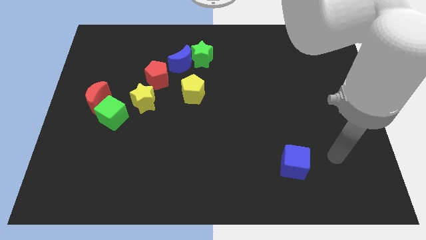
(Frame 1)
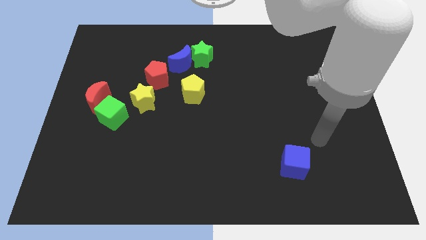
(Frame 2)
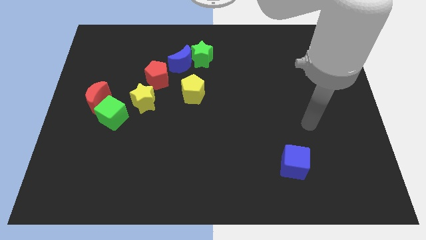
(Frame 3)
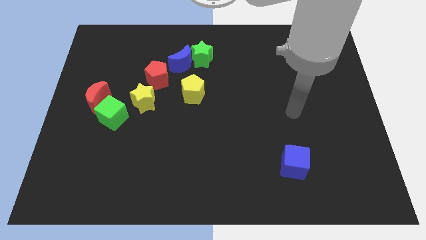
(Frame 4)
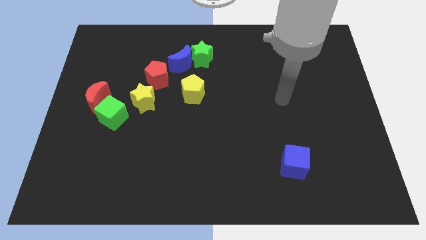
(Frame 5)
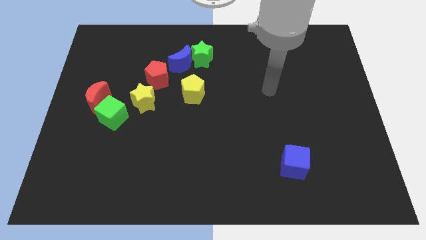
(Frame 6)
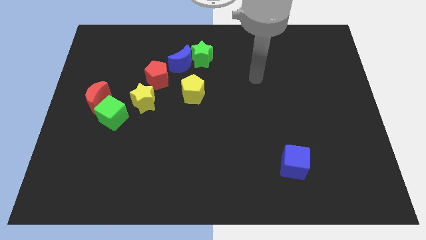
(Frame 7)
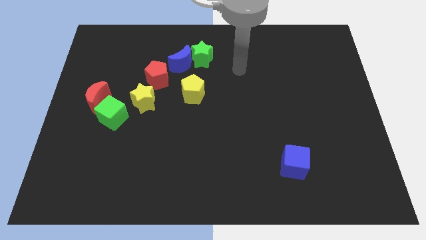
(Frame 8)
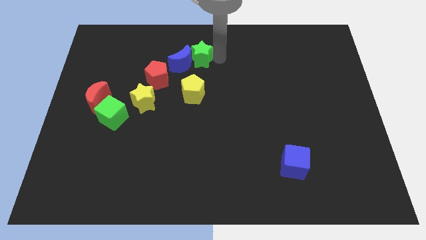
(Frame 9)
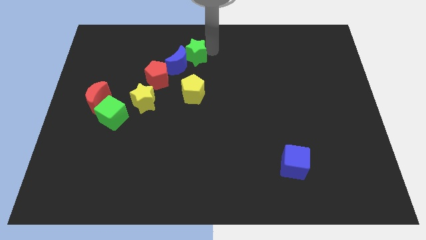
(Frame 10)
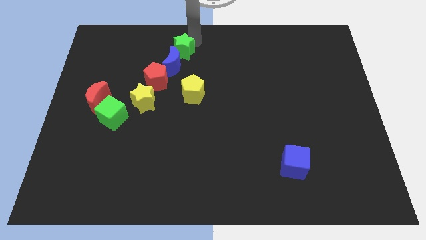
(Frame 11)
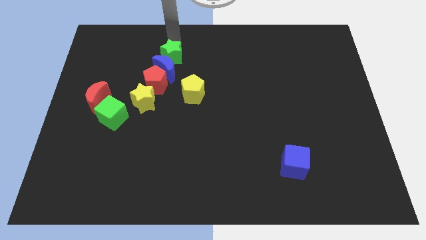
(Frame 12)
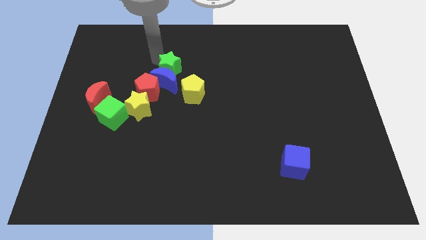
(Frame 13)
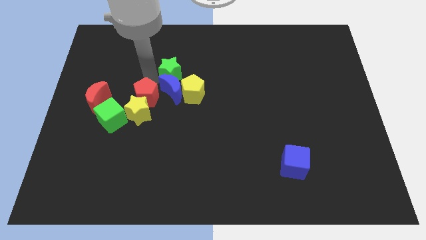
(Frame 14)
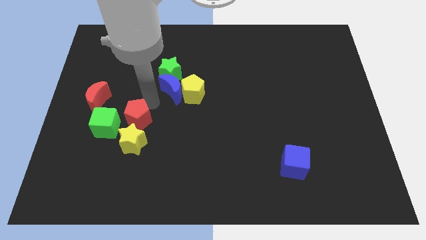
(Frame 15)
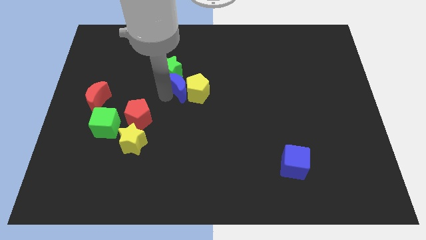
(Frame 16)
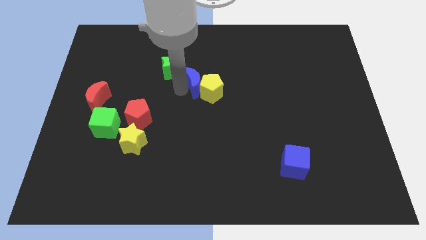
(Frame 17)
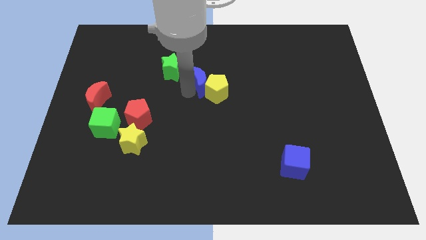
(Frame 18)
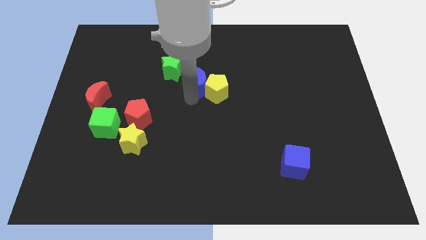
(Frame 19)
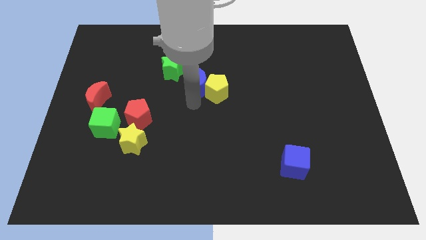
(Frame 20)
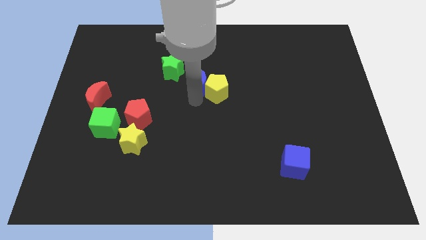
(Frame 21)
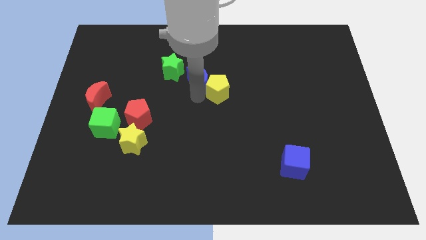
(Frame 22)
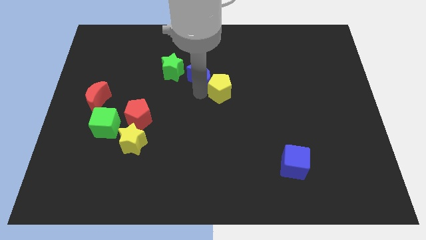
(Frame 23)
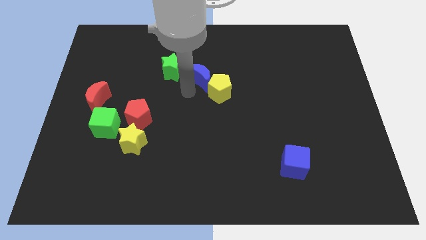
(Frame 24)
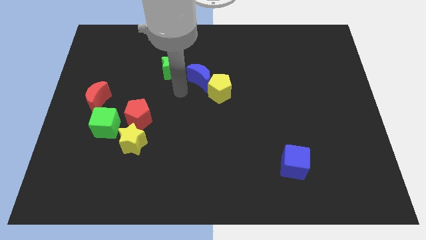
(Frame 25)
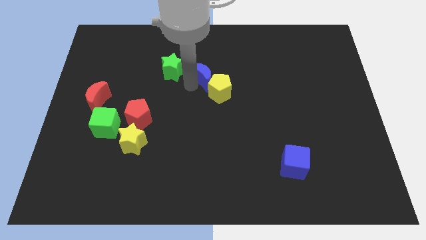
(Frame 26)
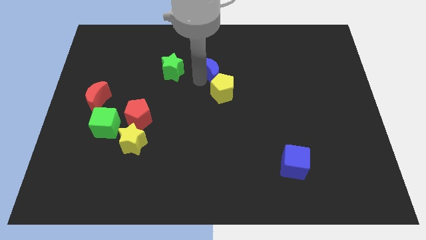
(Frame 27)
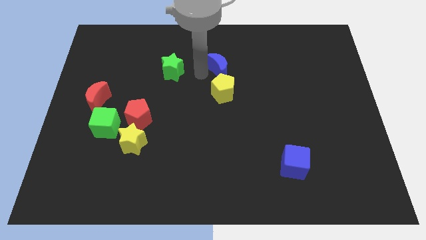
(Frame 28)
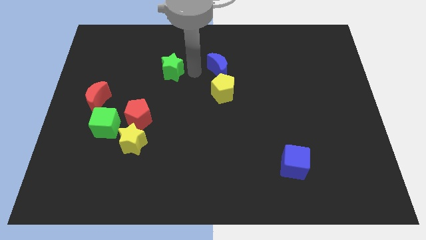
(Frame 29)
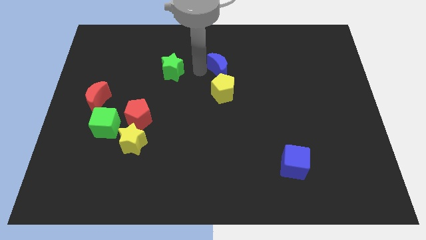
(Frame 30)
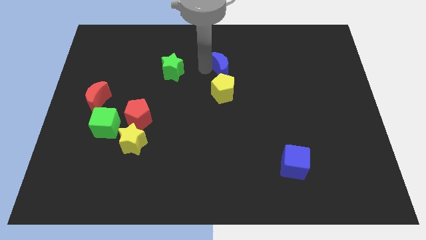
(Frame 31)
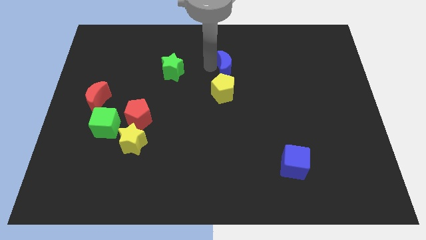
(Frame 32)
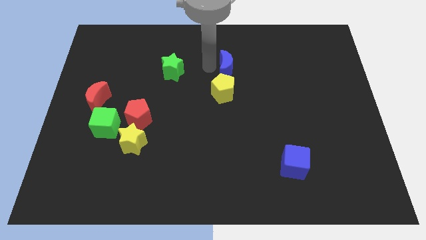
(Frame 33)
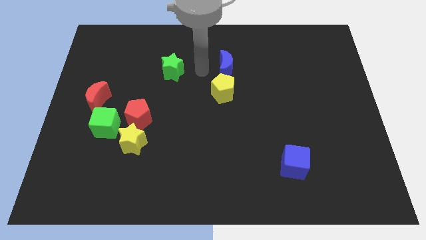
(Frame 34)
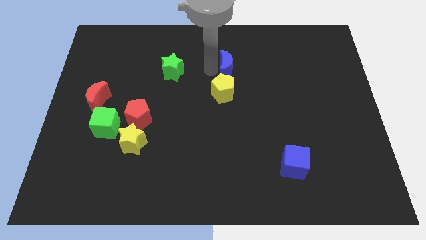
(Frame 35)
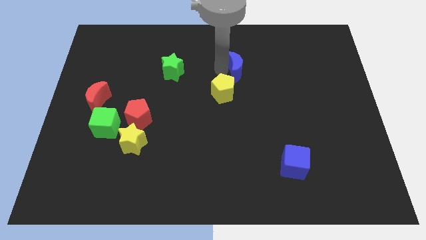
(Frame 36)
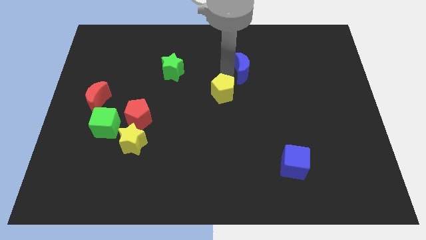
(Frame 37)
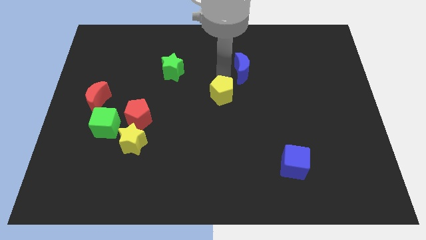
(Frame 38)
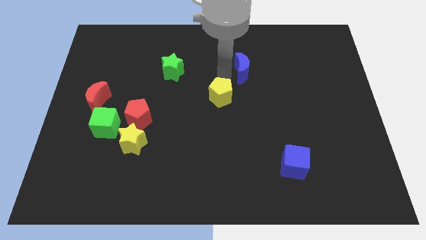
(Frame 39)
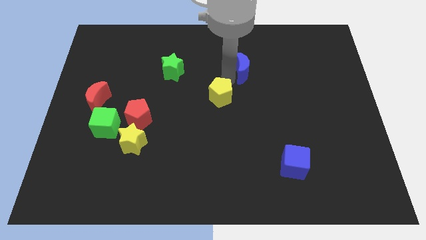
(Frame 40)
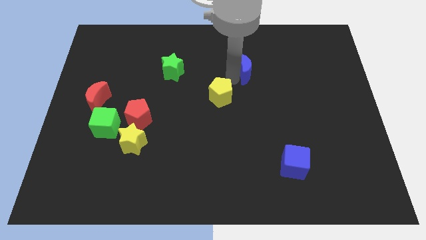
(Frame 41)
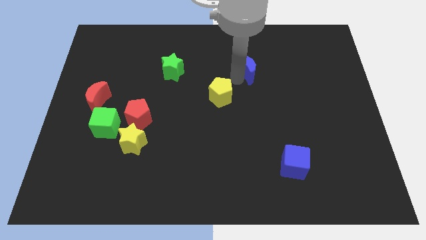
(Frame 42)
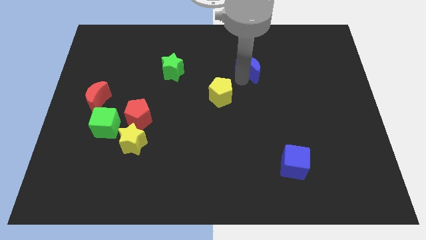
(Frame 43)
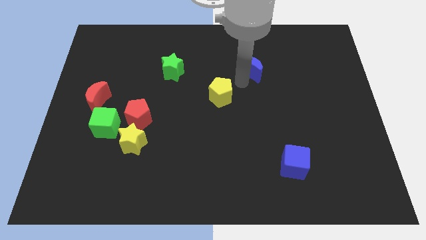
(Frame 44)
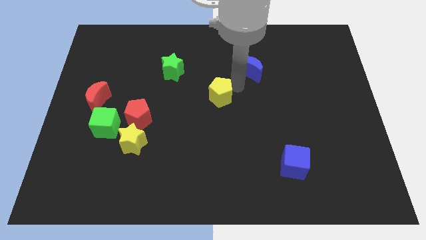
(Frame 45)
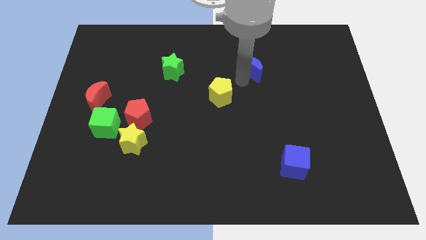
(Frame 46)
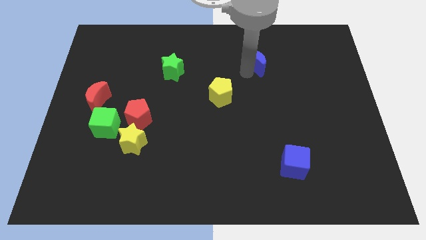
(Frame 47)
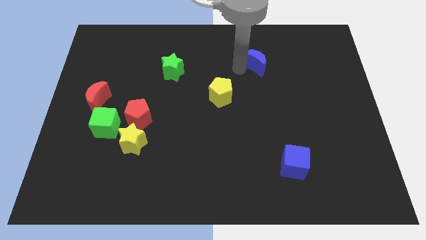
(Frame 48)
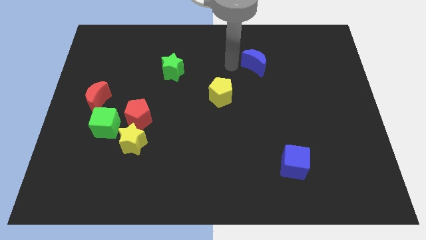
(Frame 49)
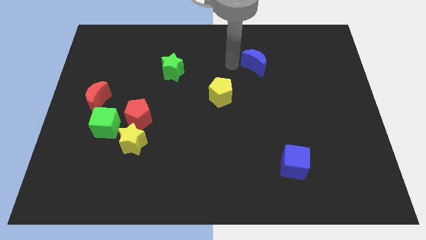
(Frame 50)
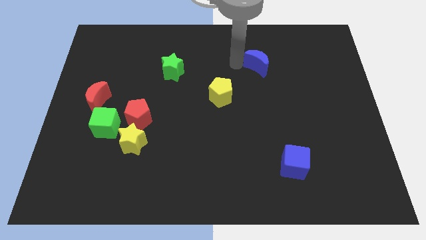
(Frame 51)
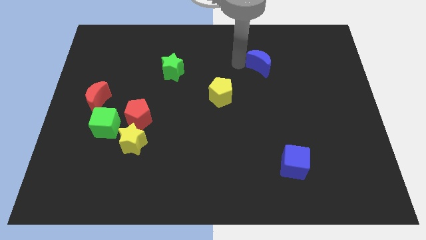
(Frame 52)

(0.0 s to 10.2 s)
slide the blue moon right

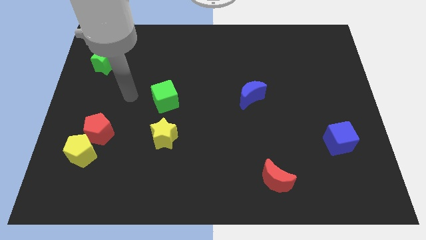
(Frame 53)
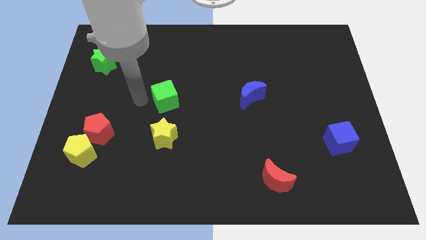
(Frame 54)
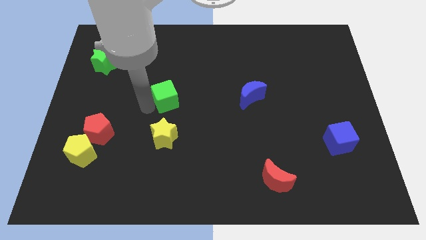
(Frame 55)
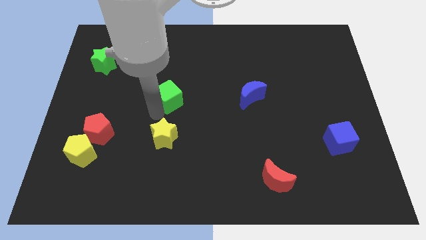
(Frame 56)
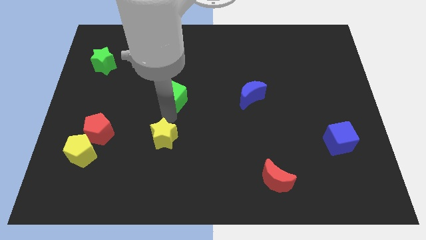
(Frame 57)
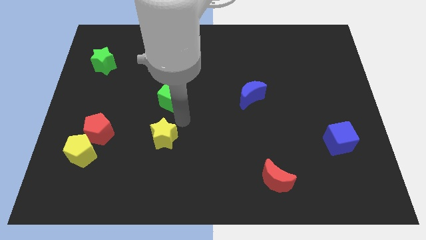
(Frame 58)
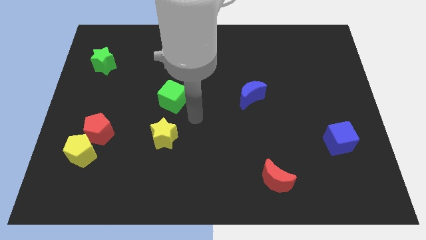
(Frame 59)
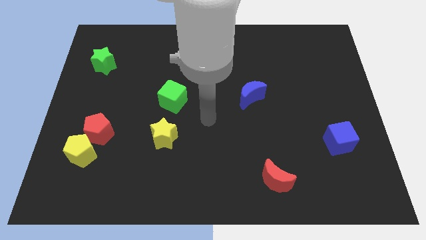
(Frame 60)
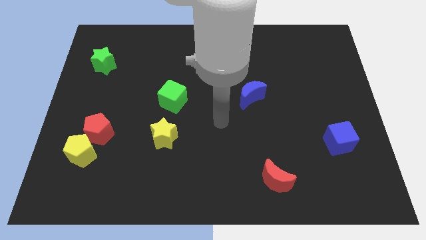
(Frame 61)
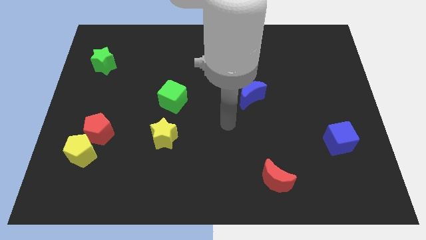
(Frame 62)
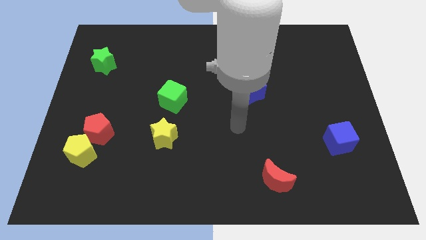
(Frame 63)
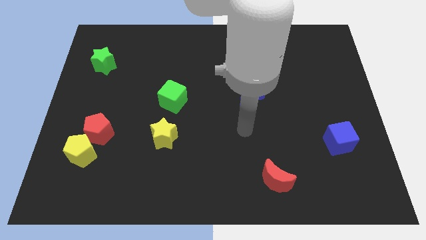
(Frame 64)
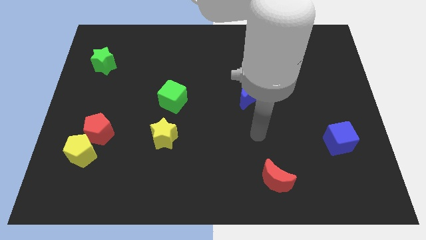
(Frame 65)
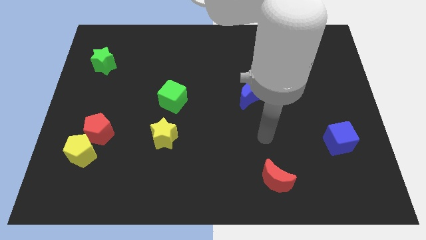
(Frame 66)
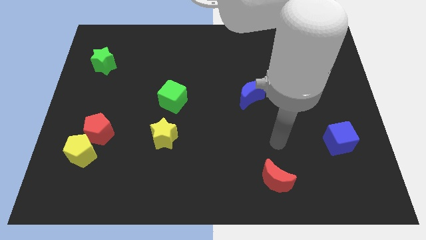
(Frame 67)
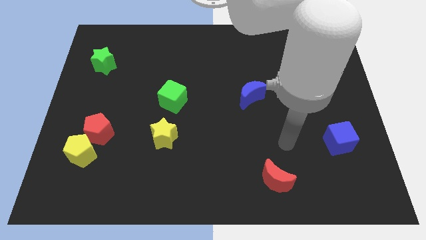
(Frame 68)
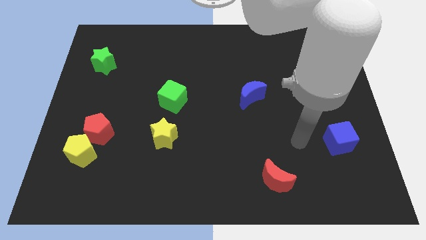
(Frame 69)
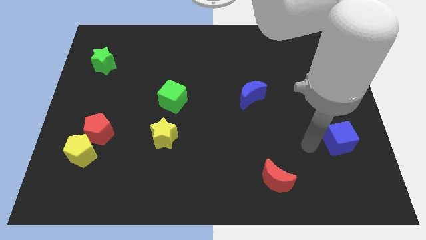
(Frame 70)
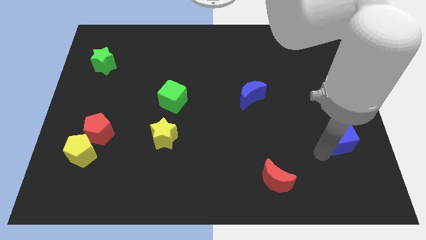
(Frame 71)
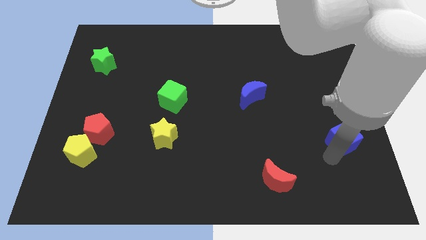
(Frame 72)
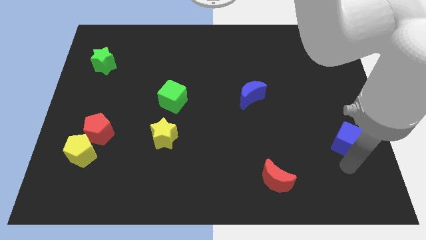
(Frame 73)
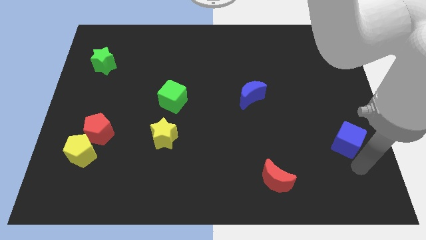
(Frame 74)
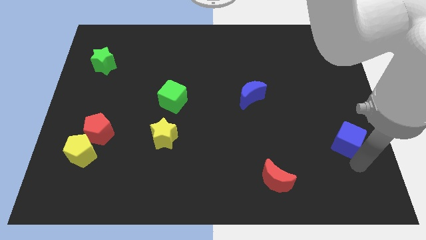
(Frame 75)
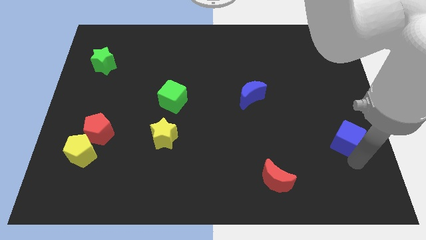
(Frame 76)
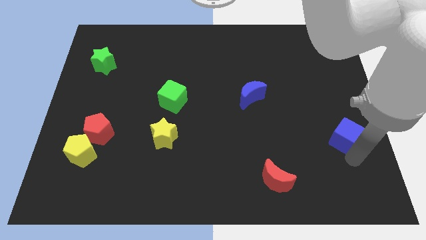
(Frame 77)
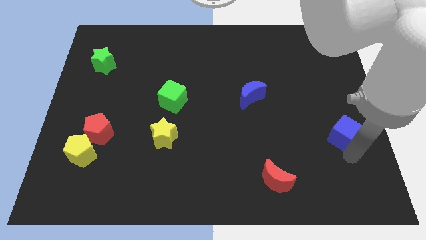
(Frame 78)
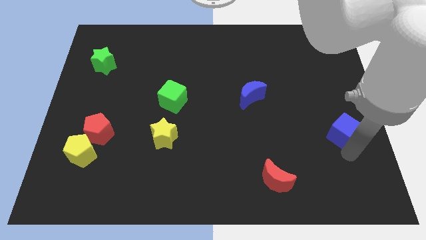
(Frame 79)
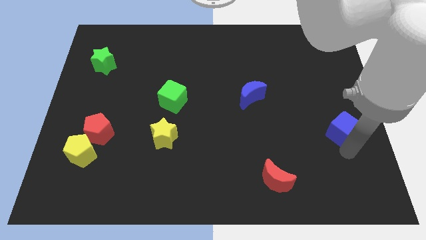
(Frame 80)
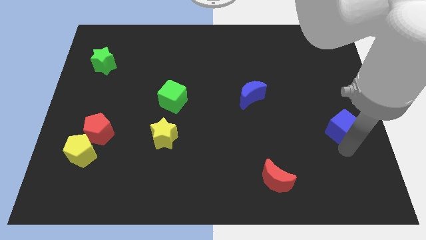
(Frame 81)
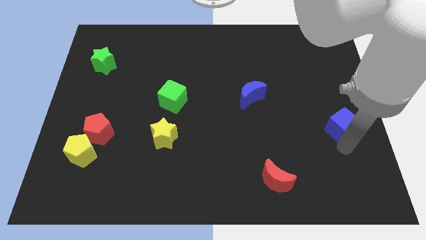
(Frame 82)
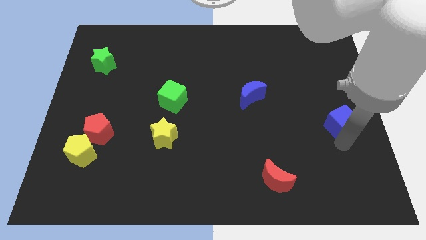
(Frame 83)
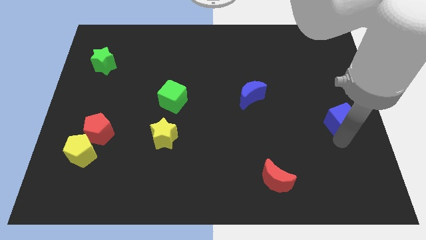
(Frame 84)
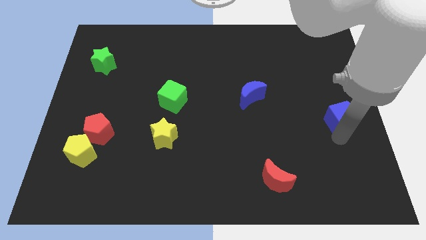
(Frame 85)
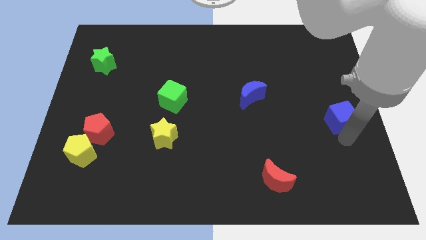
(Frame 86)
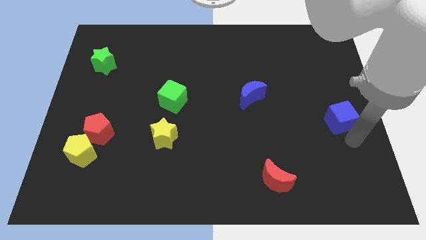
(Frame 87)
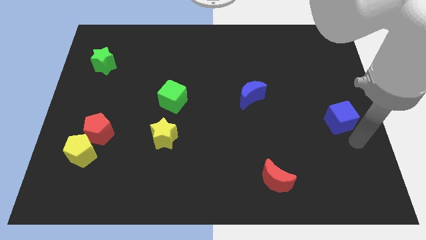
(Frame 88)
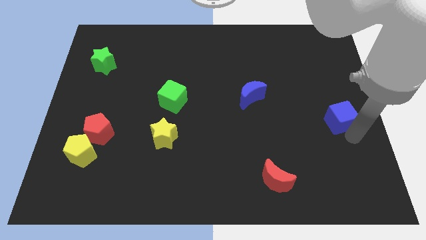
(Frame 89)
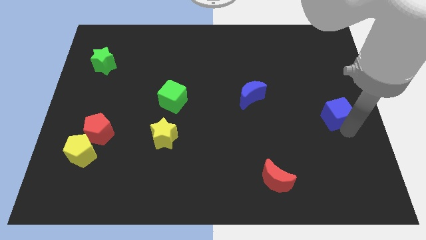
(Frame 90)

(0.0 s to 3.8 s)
push the blue cube up a bit
